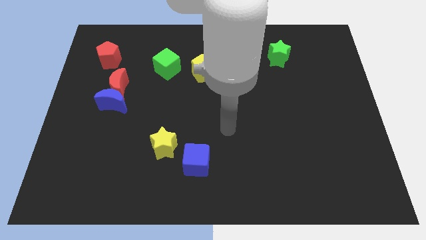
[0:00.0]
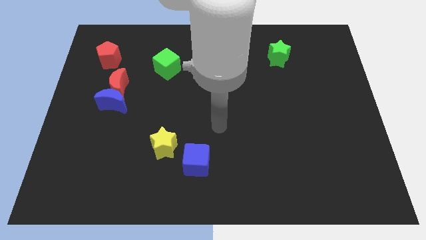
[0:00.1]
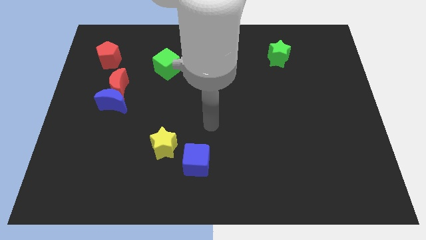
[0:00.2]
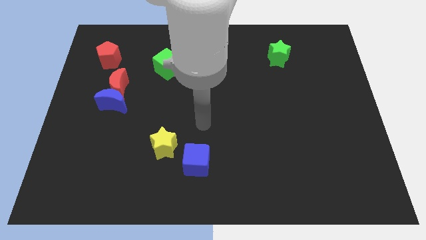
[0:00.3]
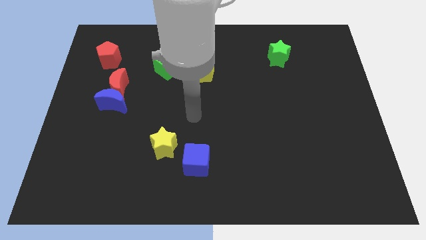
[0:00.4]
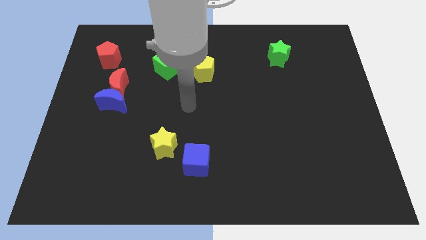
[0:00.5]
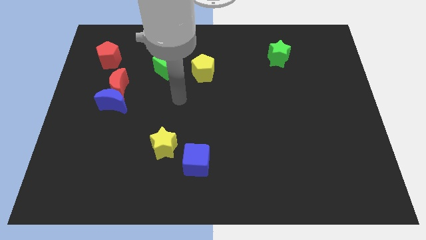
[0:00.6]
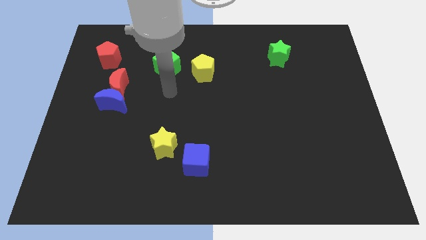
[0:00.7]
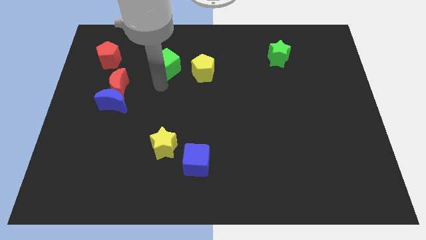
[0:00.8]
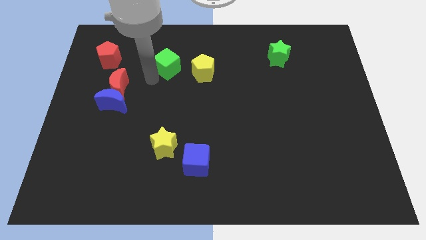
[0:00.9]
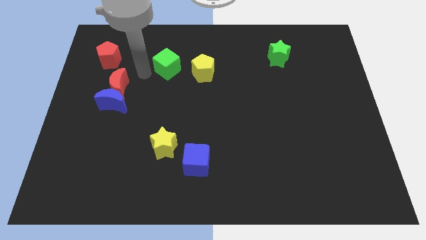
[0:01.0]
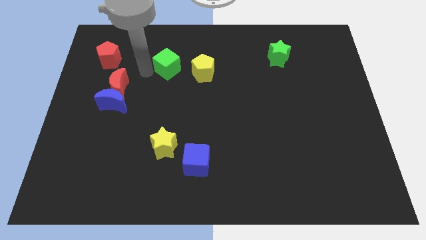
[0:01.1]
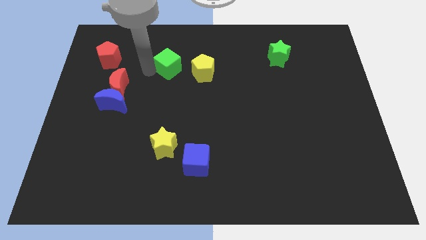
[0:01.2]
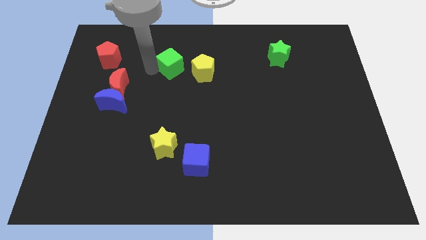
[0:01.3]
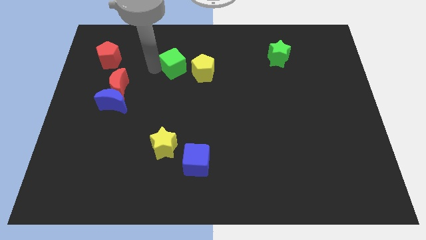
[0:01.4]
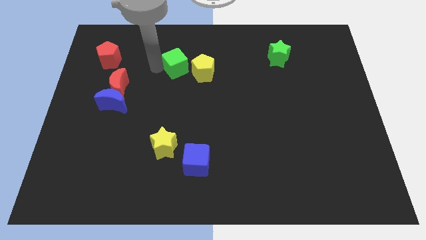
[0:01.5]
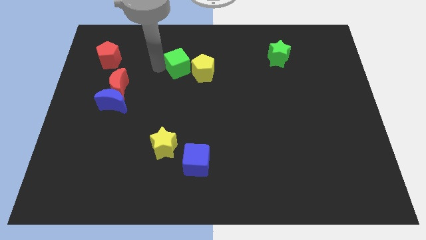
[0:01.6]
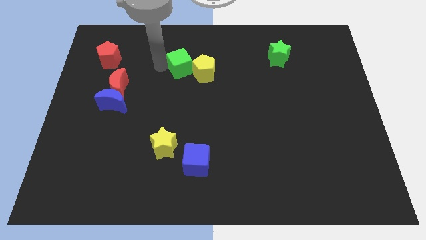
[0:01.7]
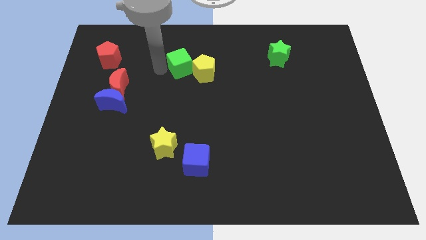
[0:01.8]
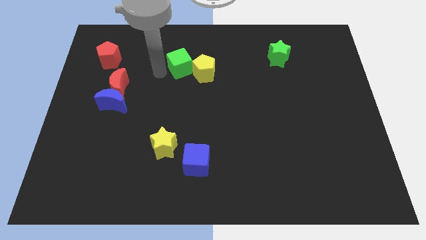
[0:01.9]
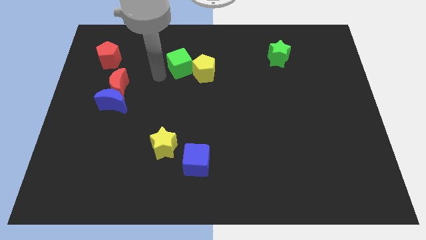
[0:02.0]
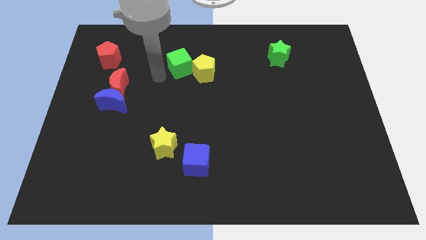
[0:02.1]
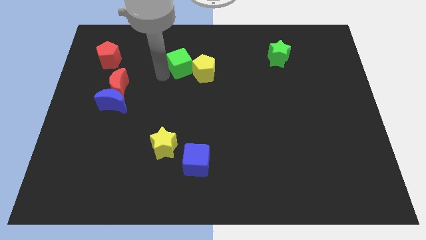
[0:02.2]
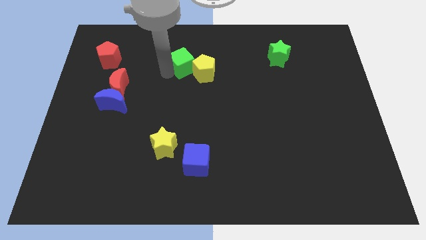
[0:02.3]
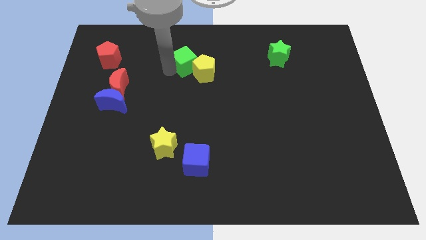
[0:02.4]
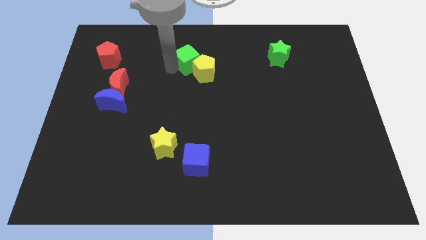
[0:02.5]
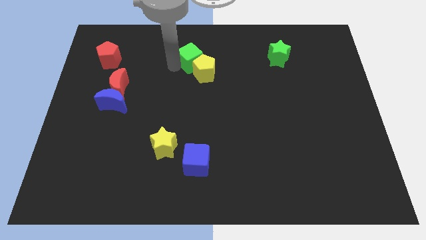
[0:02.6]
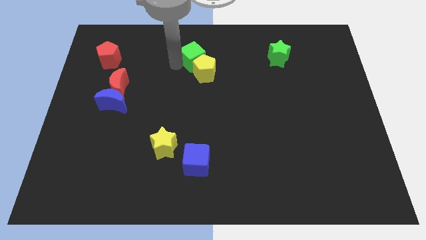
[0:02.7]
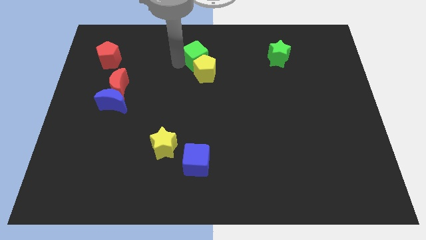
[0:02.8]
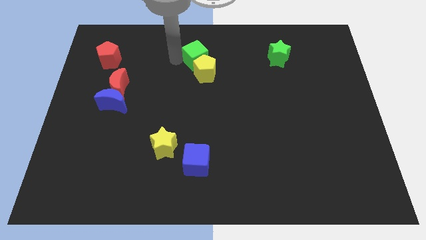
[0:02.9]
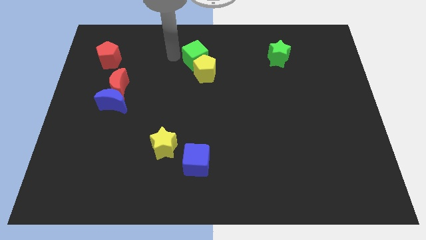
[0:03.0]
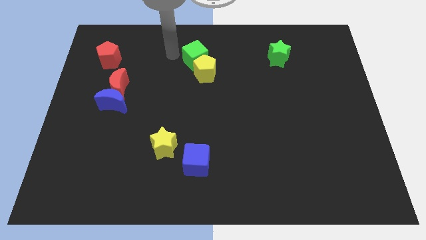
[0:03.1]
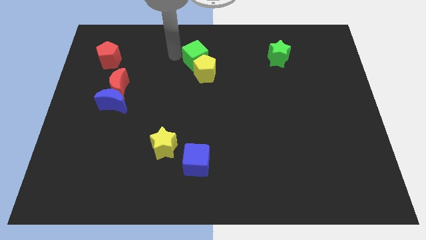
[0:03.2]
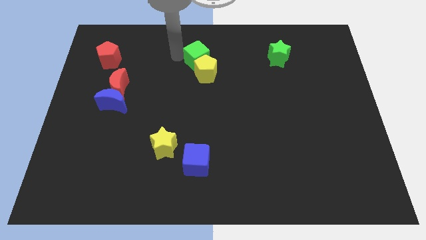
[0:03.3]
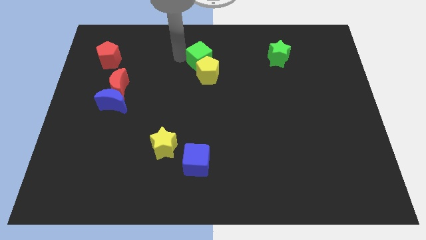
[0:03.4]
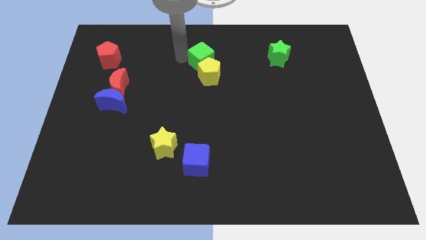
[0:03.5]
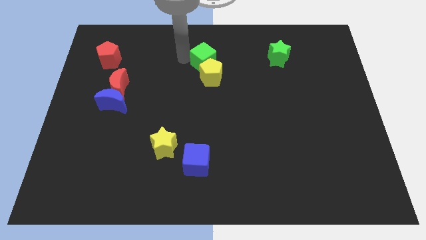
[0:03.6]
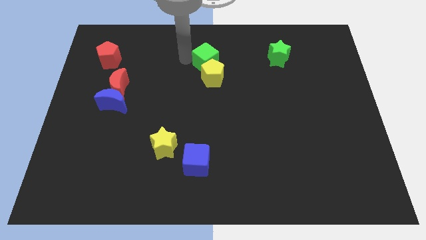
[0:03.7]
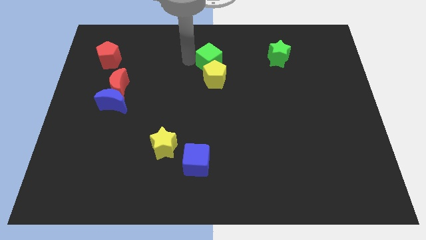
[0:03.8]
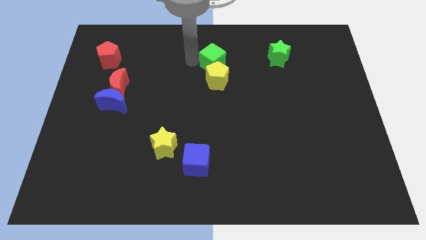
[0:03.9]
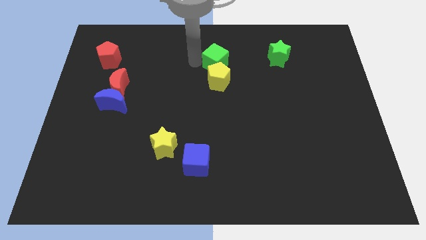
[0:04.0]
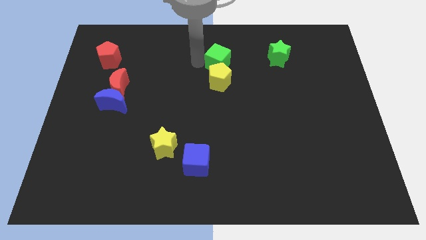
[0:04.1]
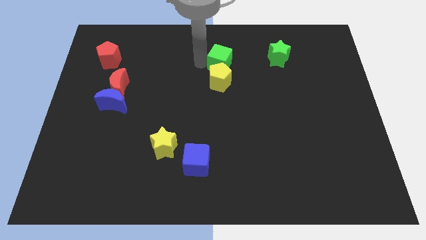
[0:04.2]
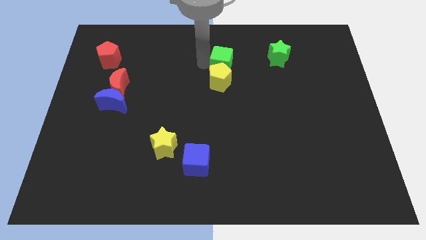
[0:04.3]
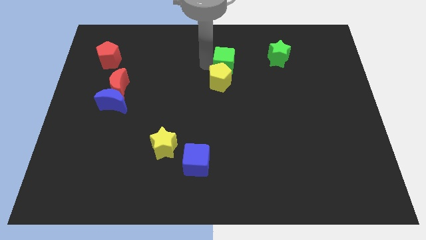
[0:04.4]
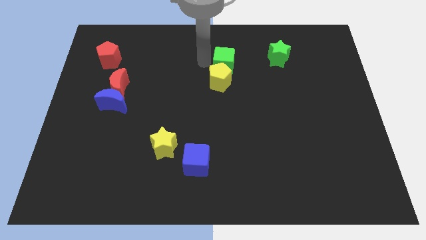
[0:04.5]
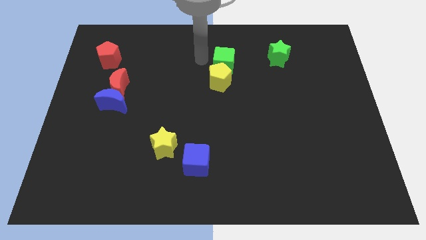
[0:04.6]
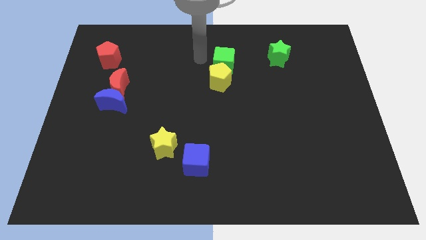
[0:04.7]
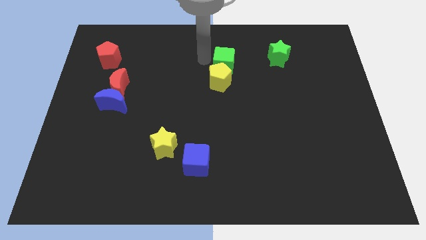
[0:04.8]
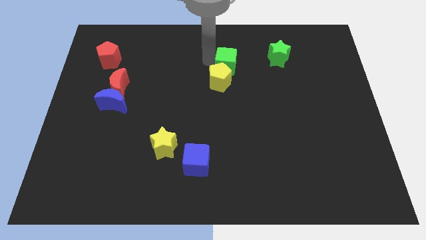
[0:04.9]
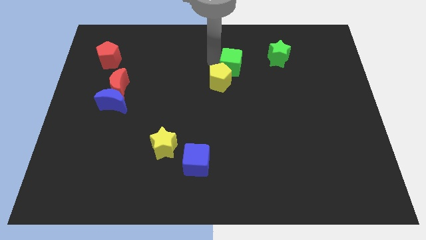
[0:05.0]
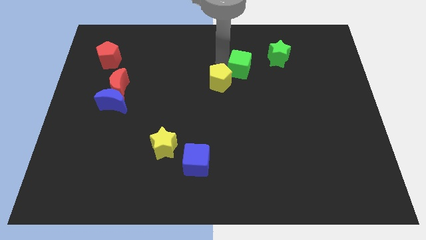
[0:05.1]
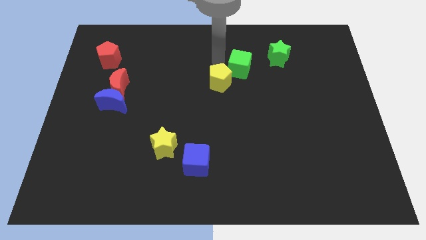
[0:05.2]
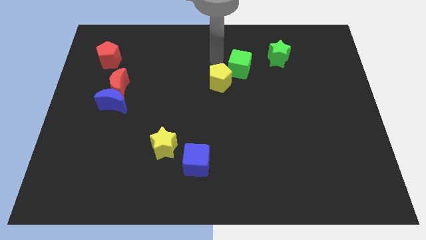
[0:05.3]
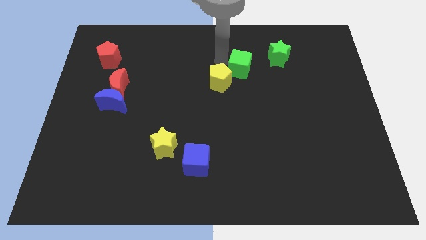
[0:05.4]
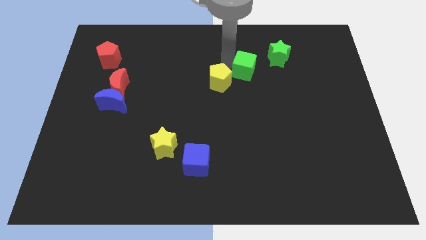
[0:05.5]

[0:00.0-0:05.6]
slide the green cube right

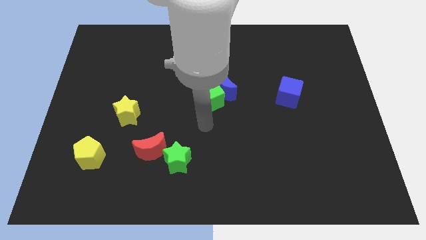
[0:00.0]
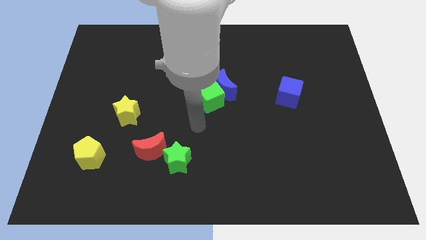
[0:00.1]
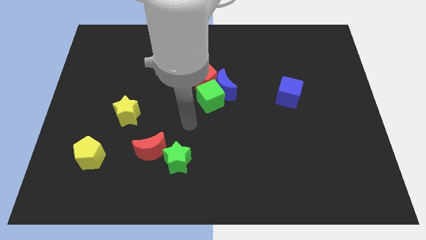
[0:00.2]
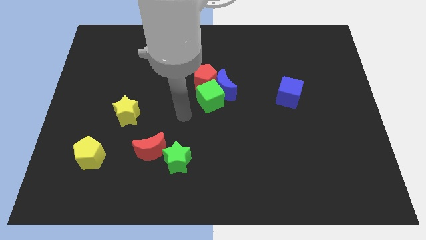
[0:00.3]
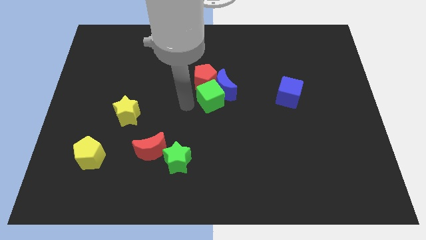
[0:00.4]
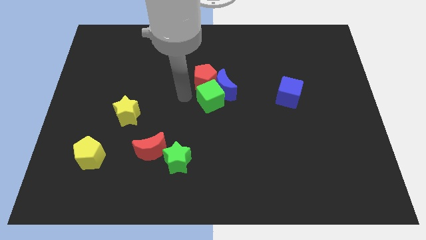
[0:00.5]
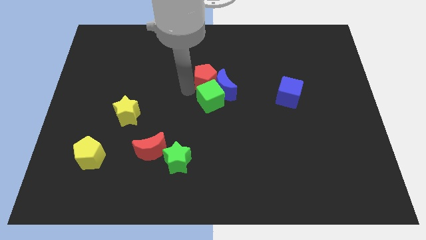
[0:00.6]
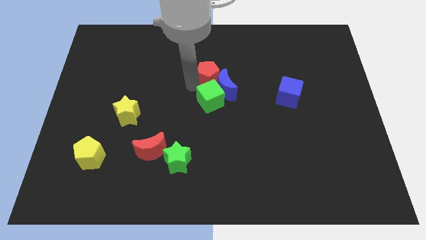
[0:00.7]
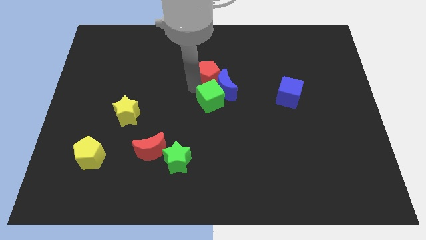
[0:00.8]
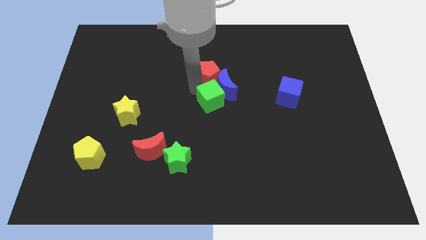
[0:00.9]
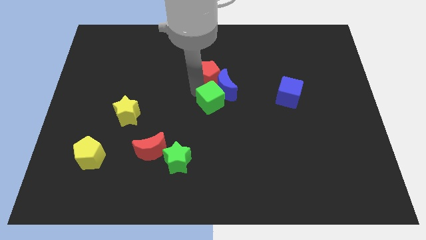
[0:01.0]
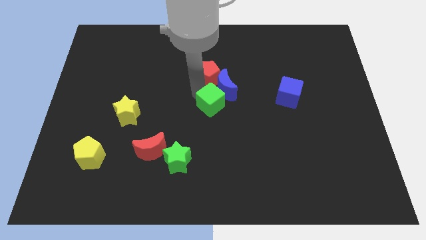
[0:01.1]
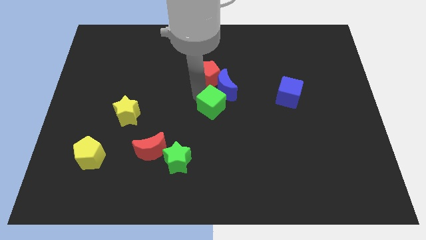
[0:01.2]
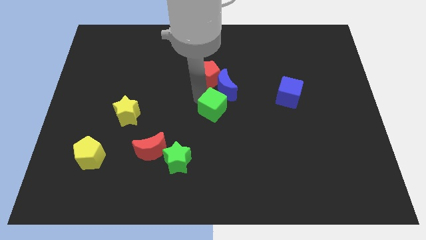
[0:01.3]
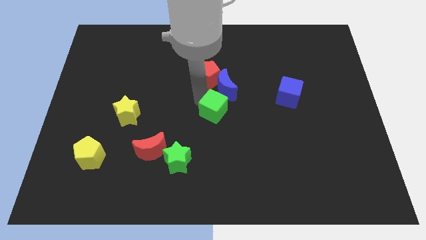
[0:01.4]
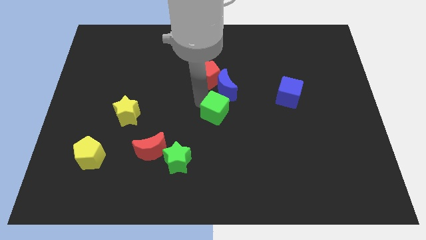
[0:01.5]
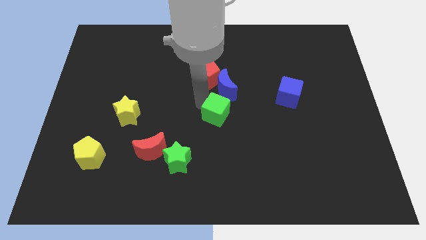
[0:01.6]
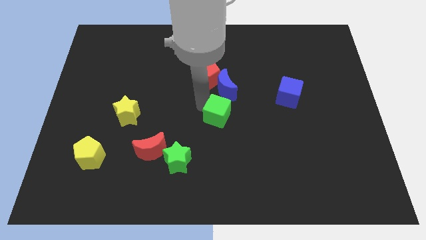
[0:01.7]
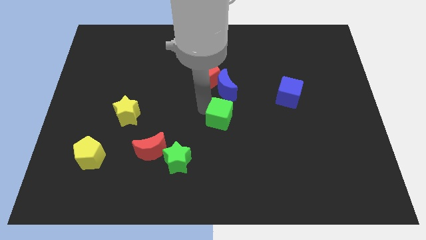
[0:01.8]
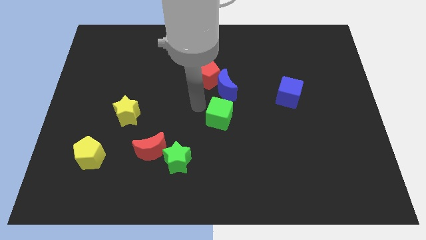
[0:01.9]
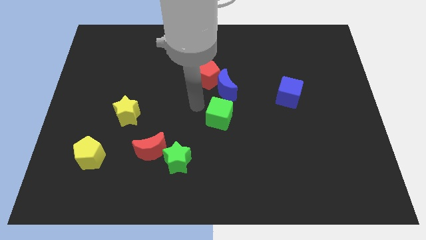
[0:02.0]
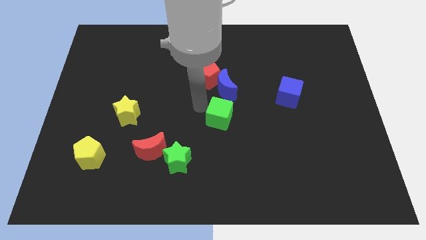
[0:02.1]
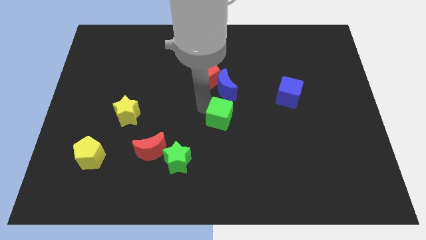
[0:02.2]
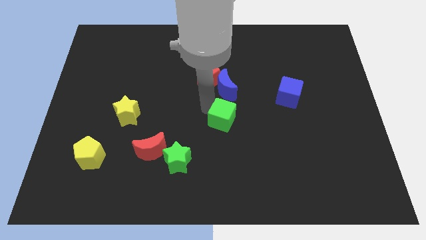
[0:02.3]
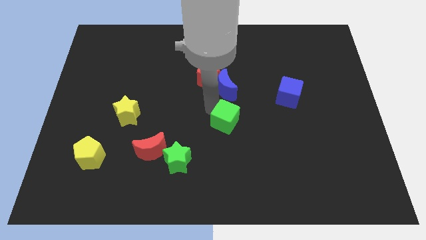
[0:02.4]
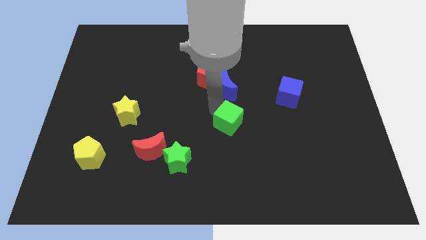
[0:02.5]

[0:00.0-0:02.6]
move the green cube downwards and to the right somewhat
